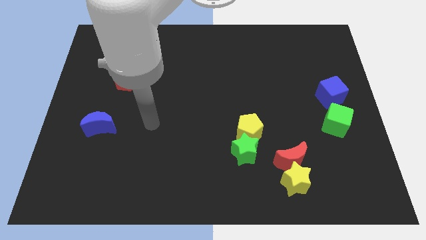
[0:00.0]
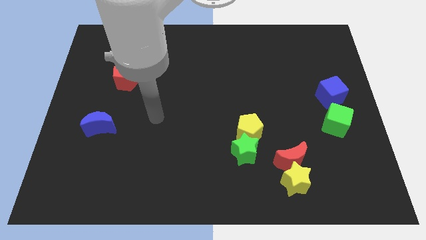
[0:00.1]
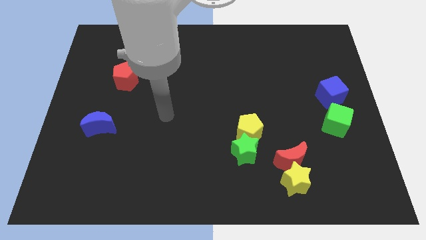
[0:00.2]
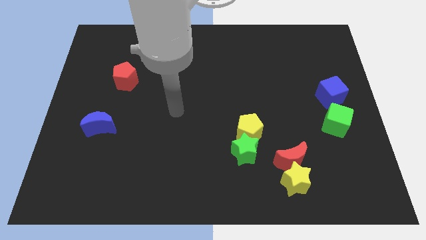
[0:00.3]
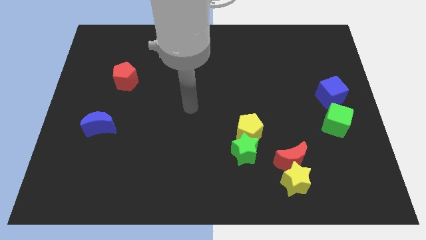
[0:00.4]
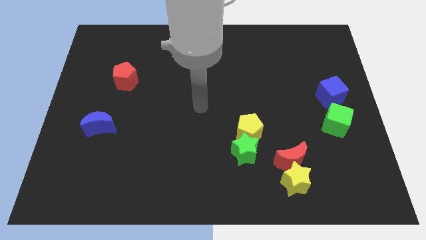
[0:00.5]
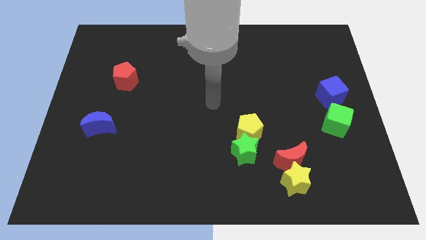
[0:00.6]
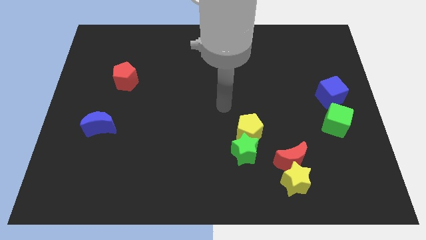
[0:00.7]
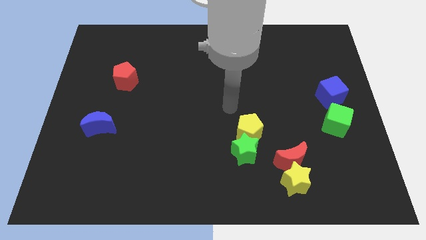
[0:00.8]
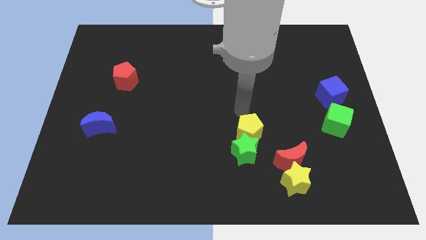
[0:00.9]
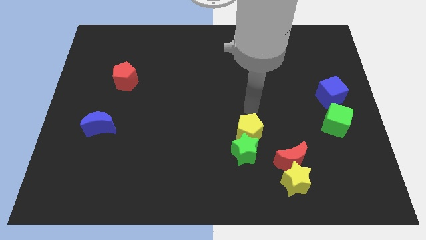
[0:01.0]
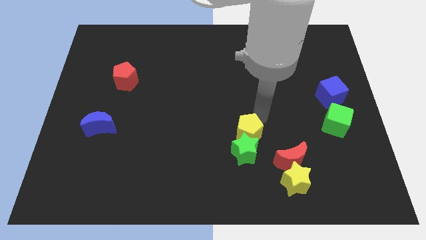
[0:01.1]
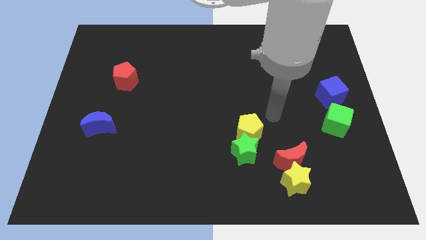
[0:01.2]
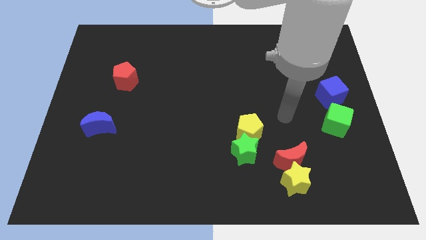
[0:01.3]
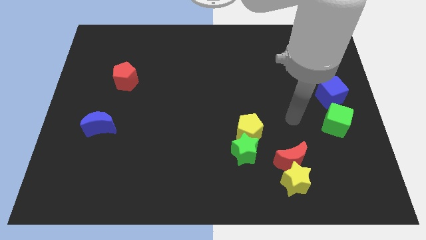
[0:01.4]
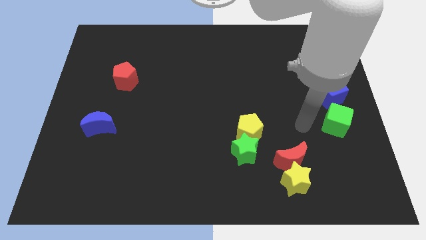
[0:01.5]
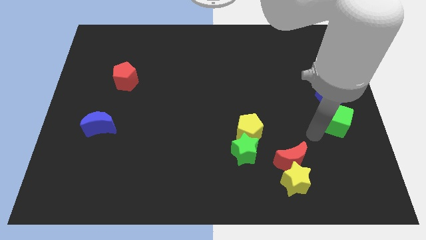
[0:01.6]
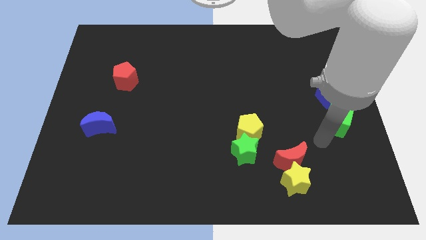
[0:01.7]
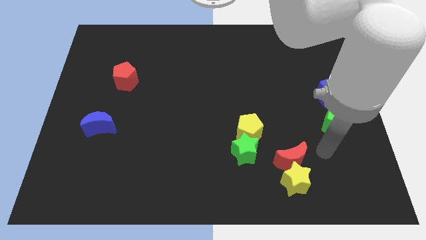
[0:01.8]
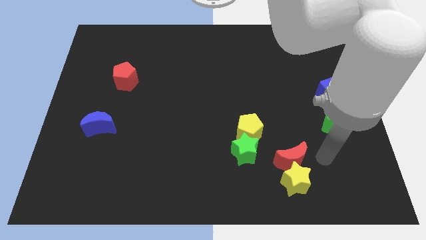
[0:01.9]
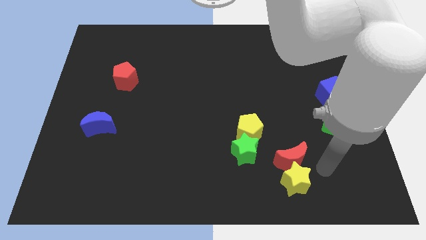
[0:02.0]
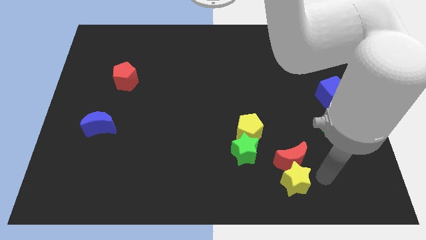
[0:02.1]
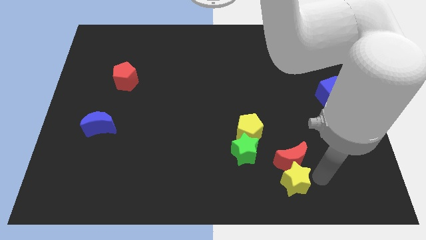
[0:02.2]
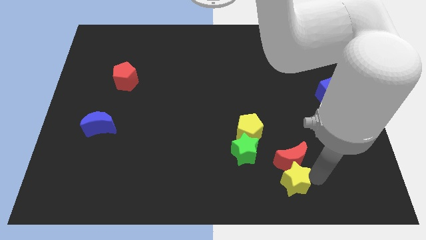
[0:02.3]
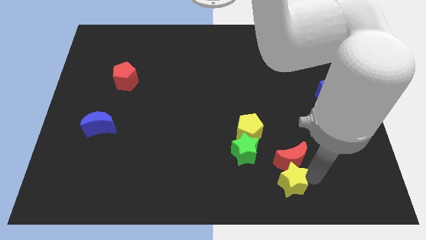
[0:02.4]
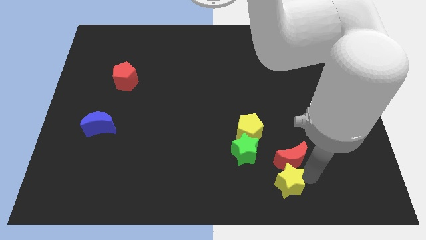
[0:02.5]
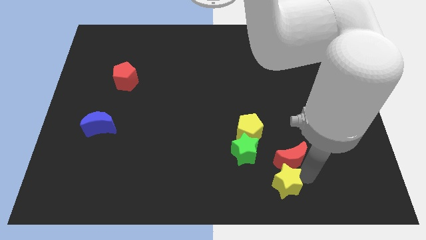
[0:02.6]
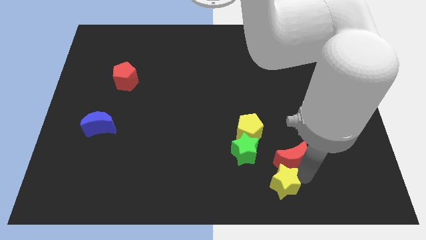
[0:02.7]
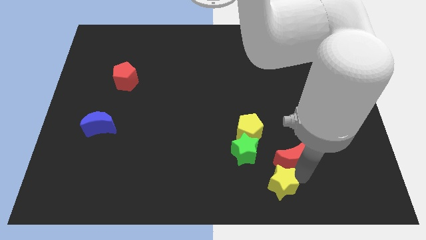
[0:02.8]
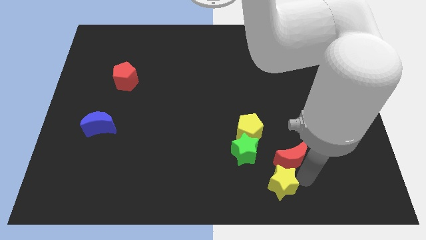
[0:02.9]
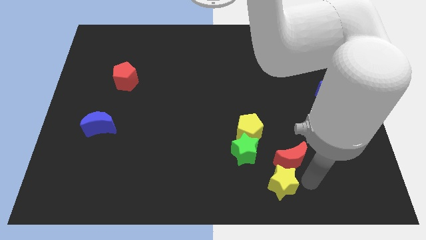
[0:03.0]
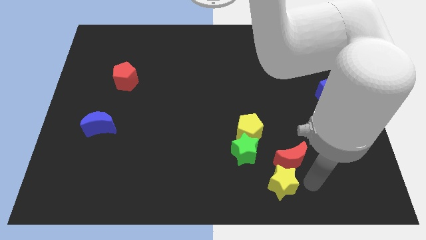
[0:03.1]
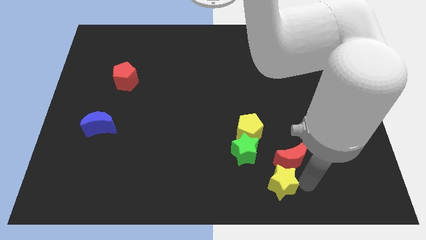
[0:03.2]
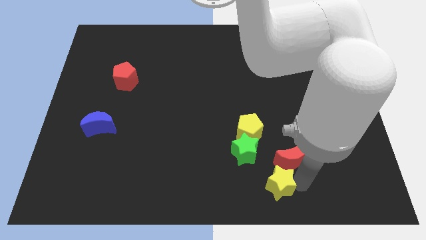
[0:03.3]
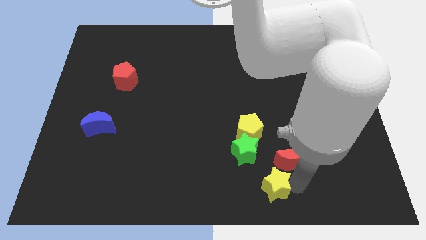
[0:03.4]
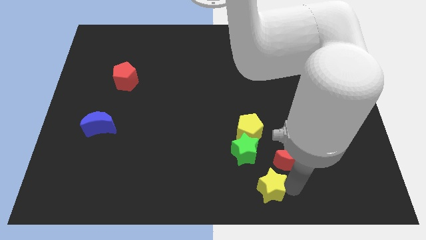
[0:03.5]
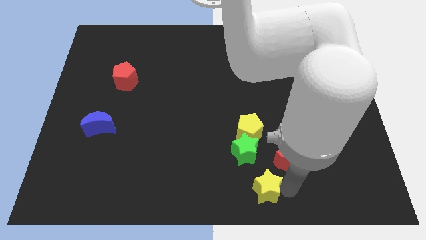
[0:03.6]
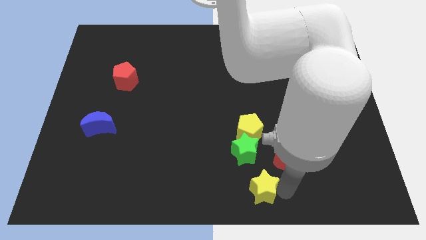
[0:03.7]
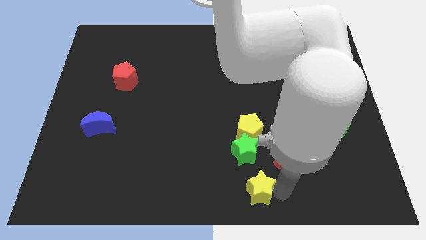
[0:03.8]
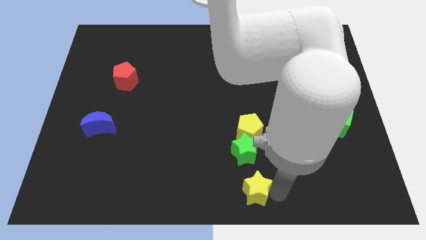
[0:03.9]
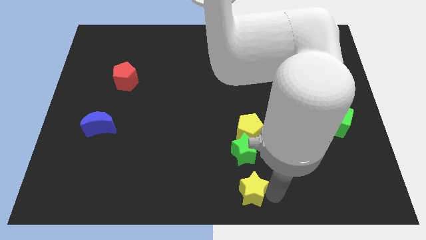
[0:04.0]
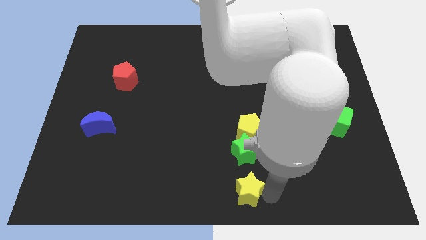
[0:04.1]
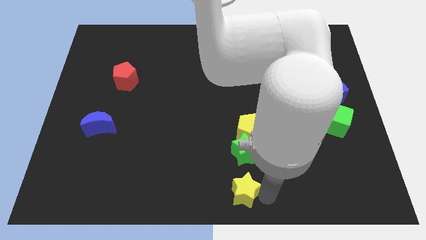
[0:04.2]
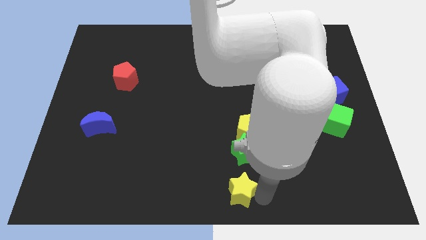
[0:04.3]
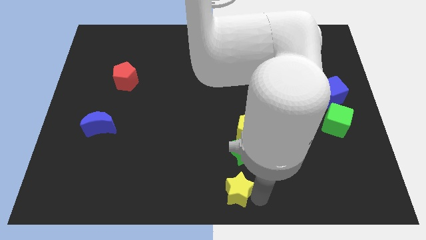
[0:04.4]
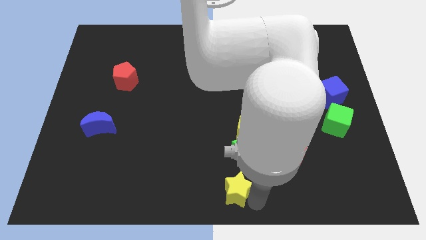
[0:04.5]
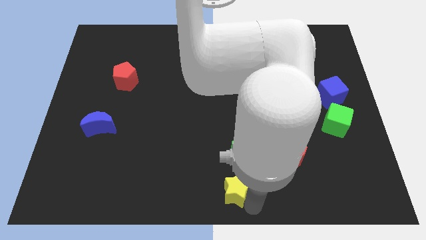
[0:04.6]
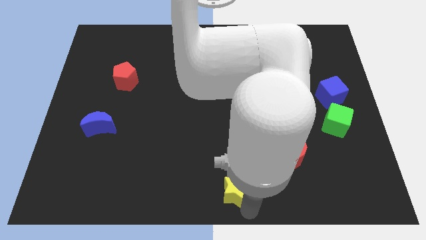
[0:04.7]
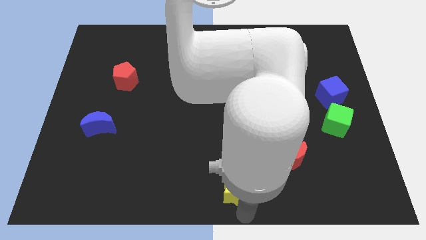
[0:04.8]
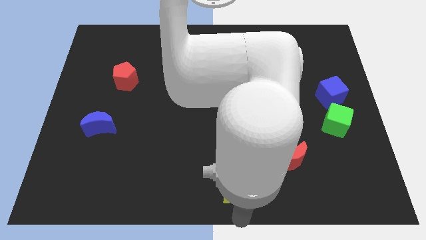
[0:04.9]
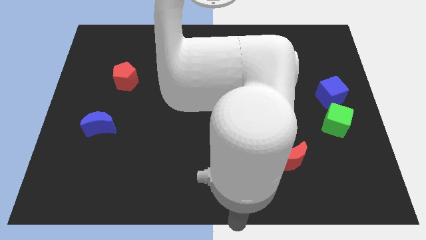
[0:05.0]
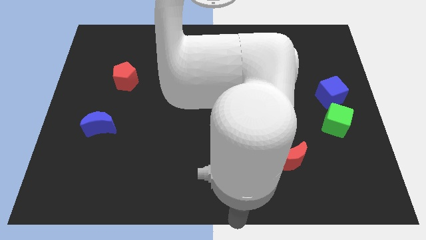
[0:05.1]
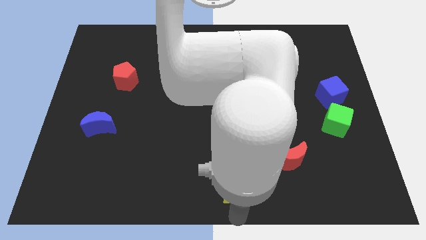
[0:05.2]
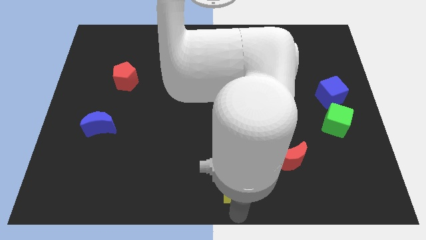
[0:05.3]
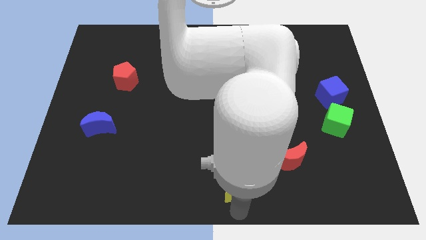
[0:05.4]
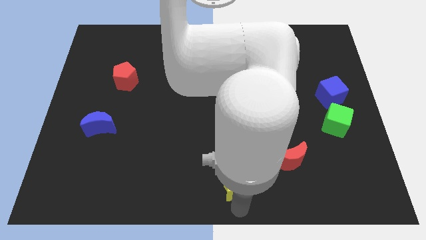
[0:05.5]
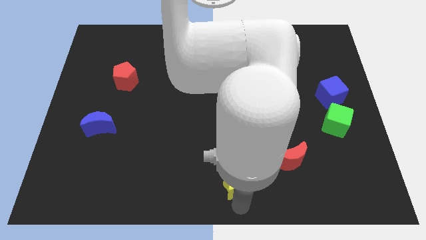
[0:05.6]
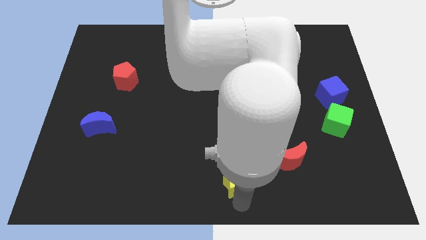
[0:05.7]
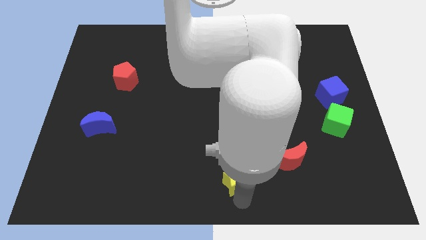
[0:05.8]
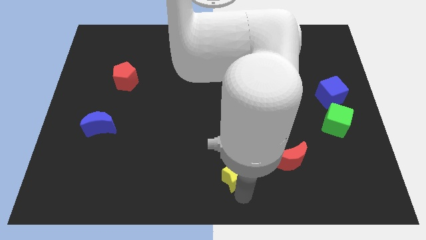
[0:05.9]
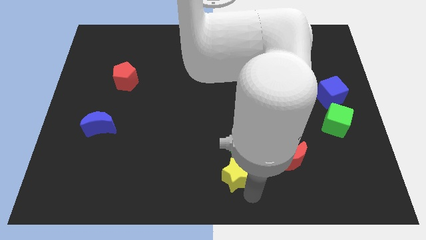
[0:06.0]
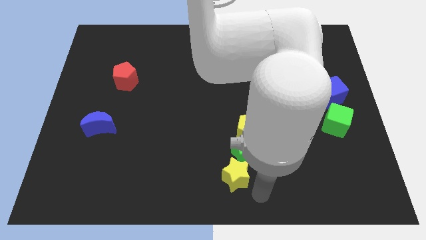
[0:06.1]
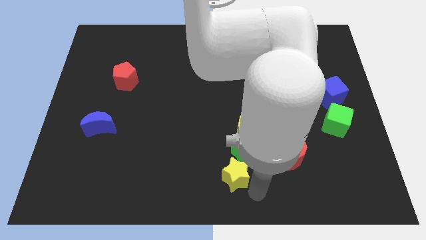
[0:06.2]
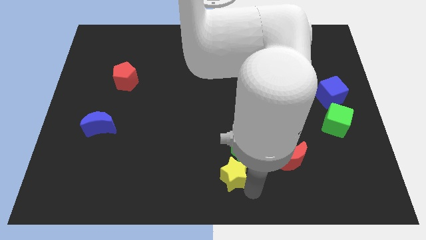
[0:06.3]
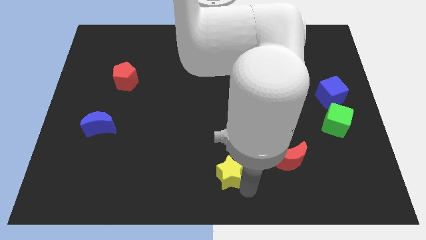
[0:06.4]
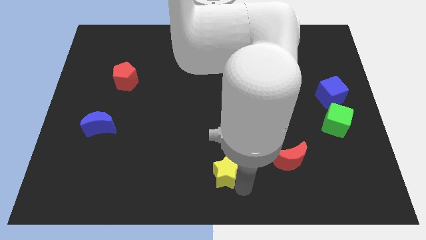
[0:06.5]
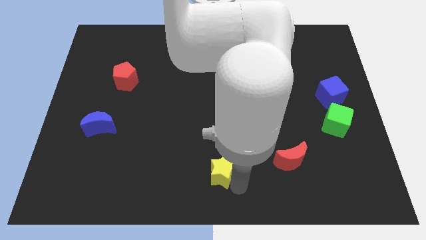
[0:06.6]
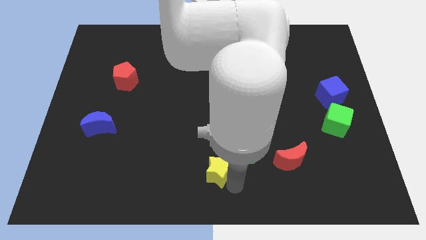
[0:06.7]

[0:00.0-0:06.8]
push the yellow star just left of the green star

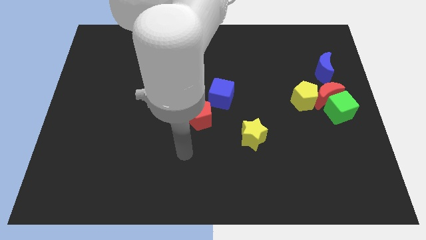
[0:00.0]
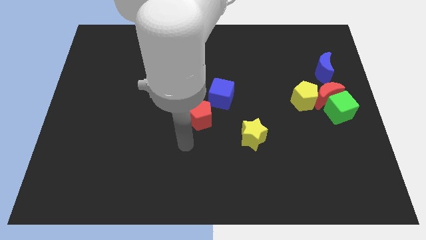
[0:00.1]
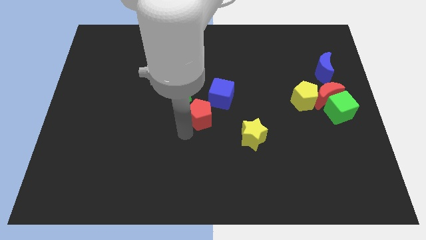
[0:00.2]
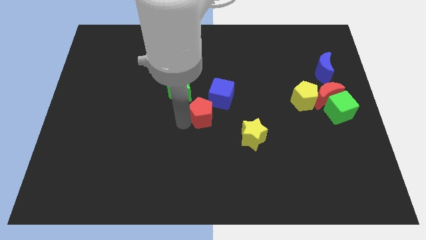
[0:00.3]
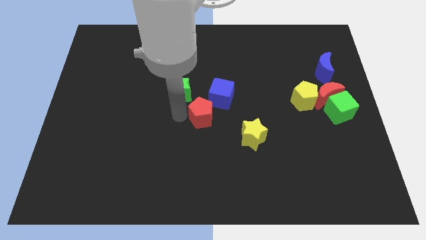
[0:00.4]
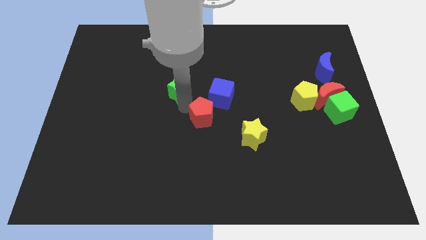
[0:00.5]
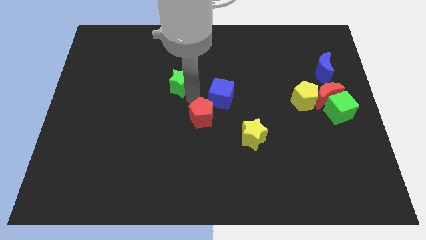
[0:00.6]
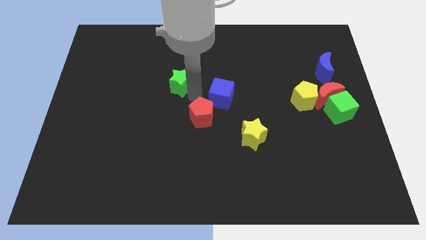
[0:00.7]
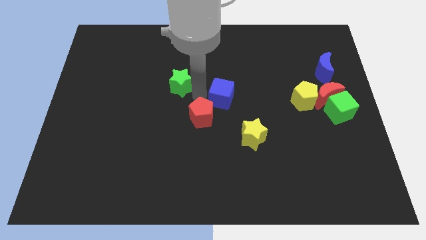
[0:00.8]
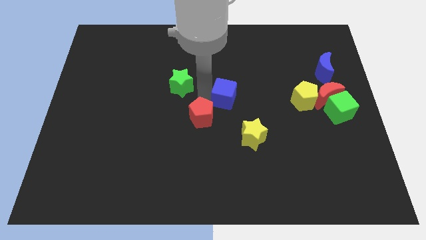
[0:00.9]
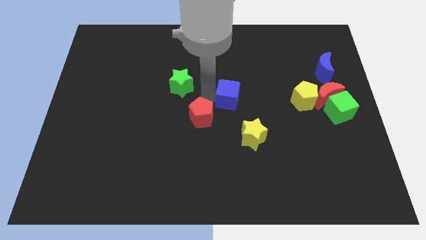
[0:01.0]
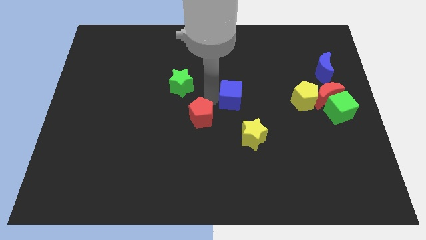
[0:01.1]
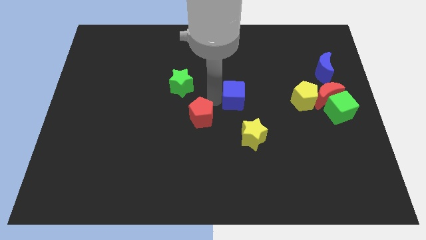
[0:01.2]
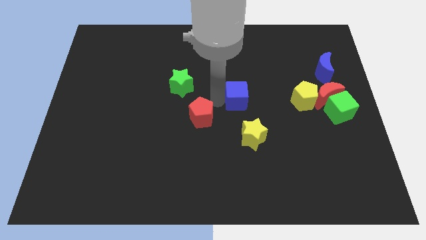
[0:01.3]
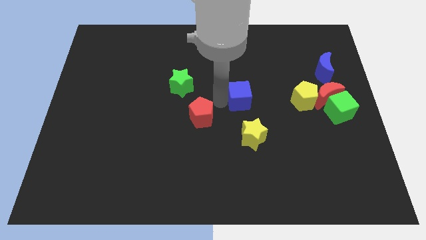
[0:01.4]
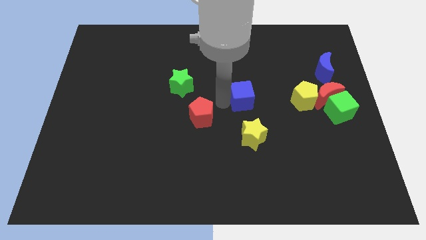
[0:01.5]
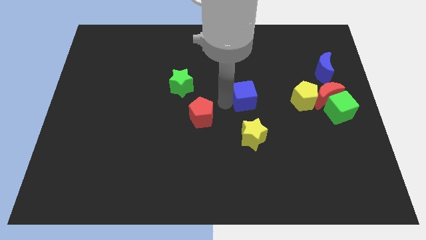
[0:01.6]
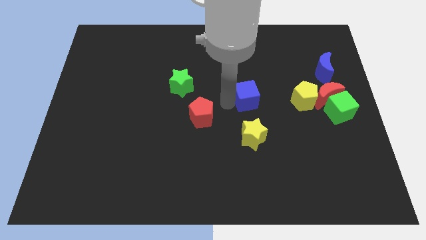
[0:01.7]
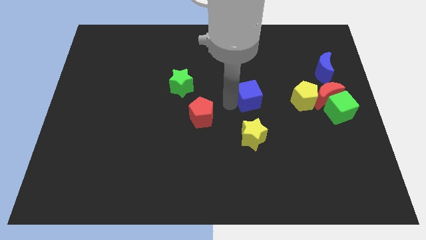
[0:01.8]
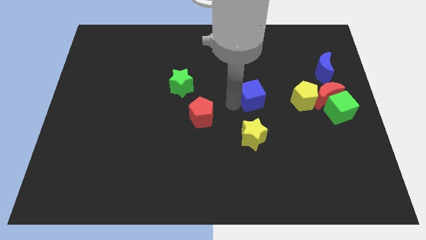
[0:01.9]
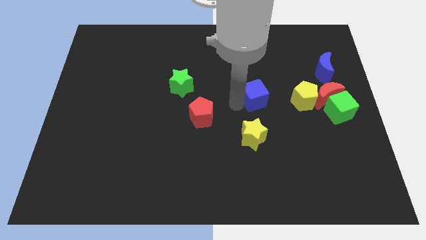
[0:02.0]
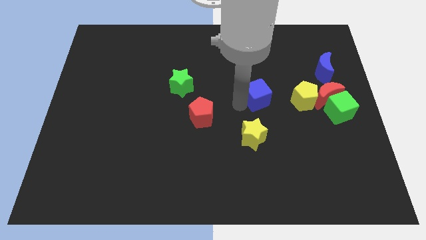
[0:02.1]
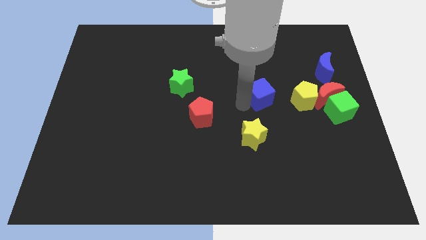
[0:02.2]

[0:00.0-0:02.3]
slide the blue cube left of the red moon
